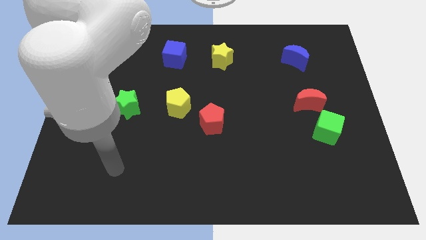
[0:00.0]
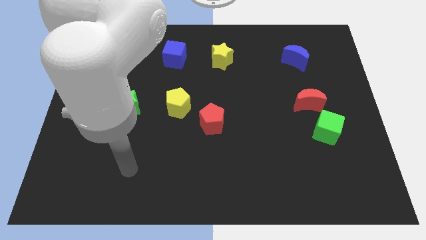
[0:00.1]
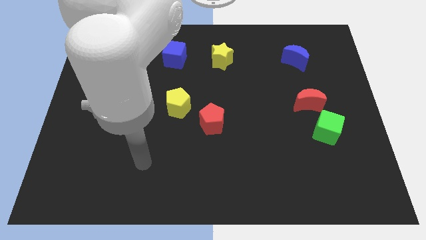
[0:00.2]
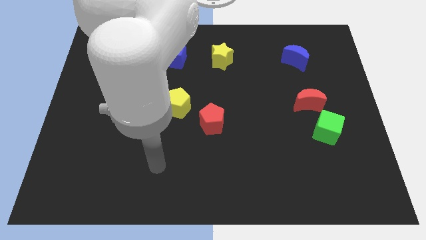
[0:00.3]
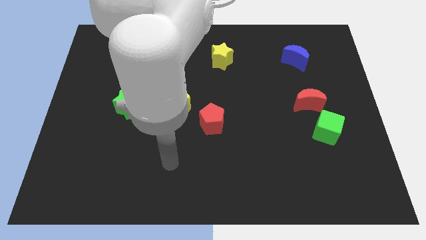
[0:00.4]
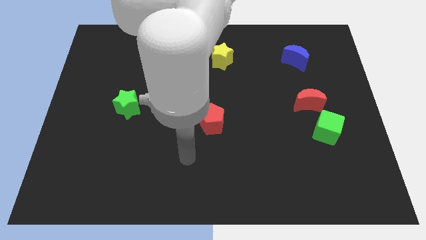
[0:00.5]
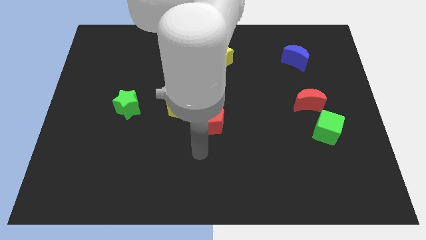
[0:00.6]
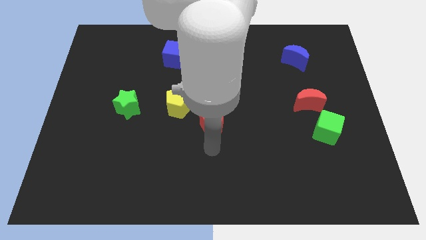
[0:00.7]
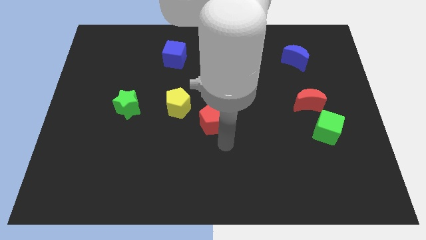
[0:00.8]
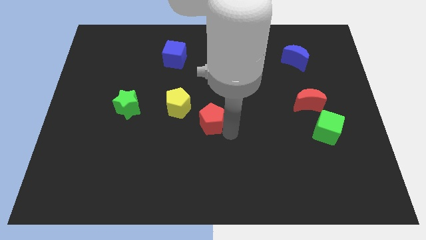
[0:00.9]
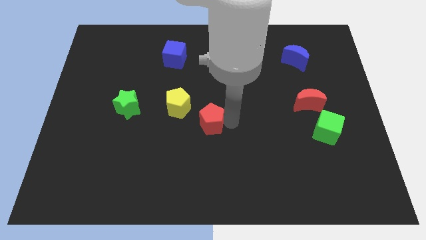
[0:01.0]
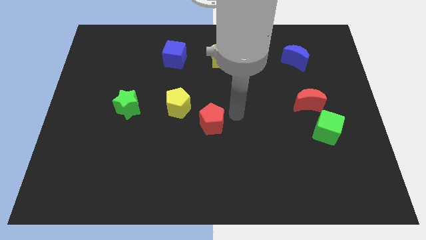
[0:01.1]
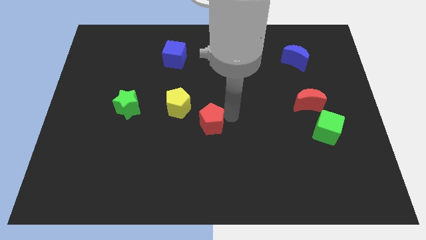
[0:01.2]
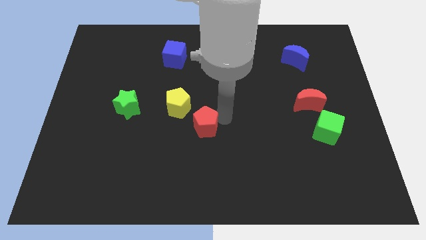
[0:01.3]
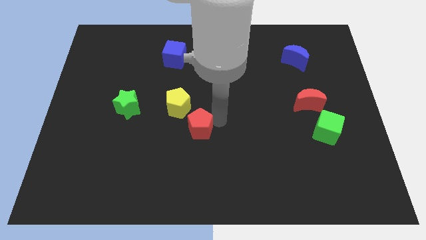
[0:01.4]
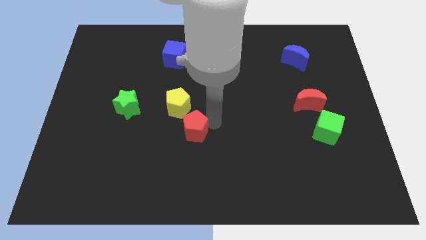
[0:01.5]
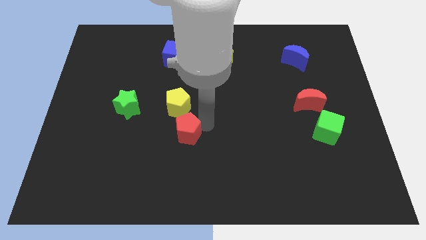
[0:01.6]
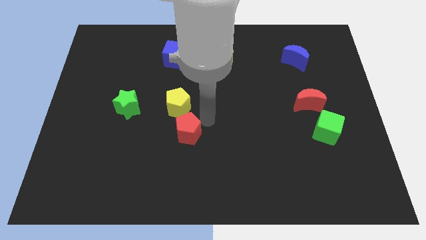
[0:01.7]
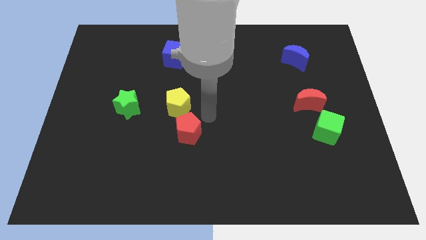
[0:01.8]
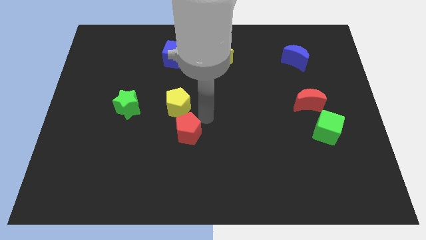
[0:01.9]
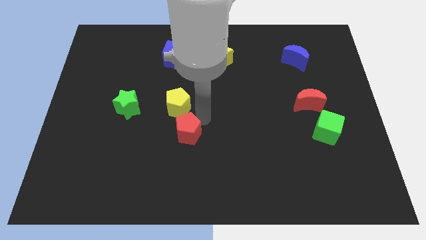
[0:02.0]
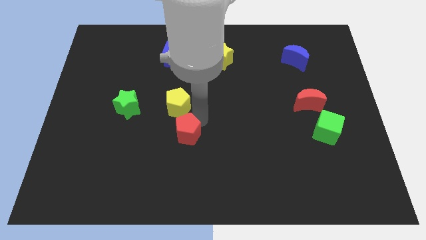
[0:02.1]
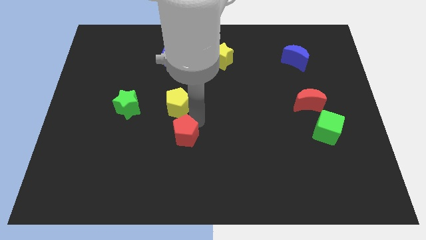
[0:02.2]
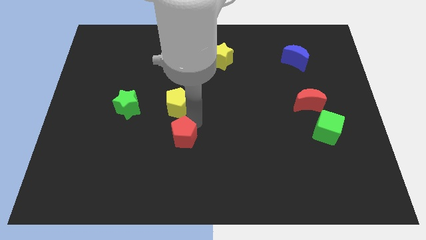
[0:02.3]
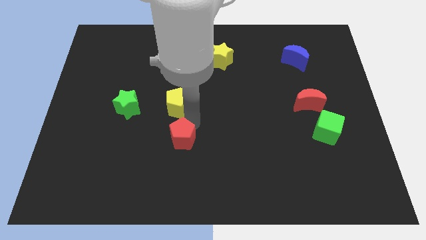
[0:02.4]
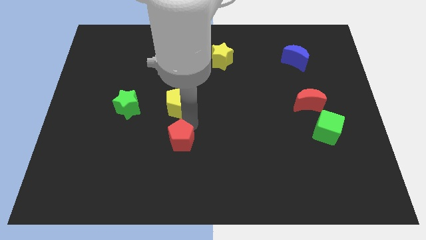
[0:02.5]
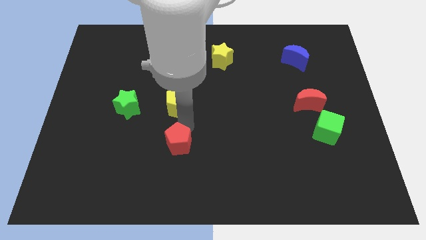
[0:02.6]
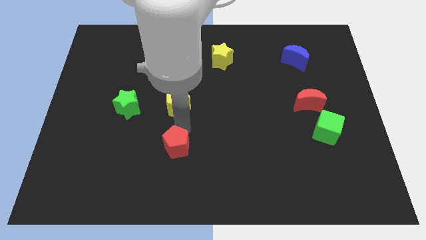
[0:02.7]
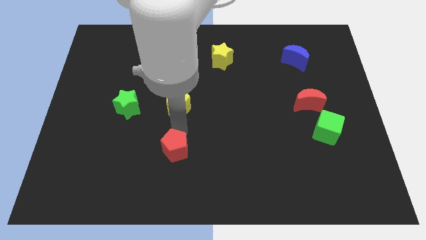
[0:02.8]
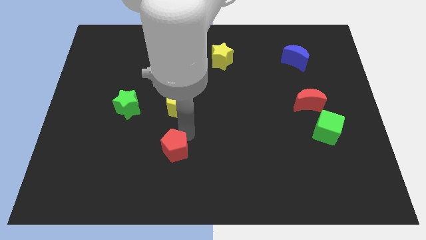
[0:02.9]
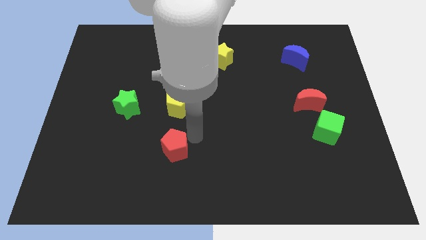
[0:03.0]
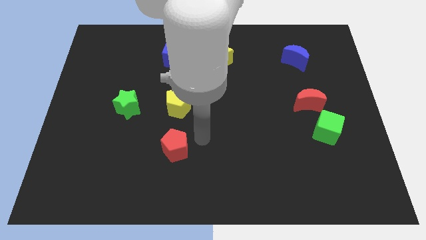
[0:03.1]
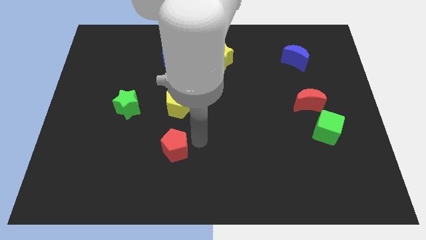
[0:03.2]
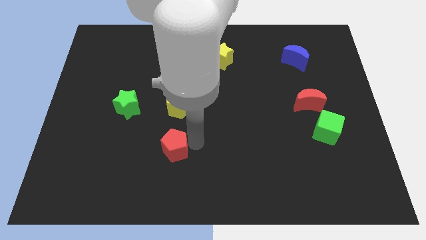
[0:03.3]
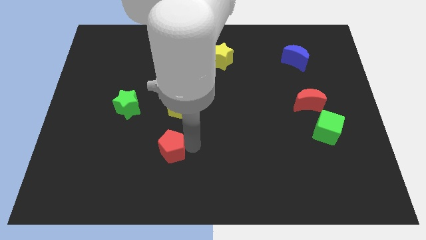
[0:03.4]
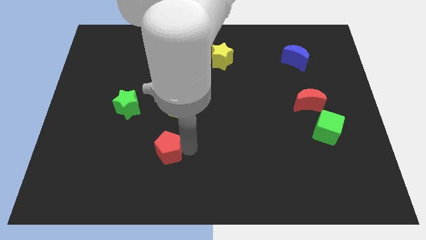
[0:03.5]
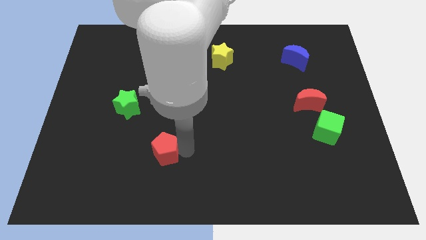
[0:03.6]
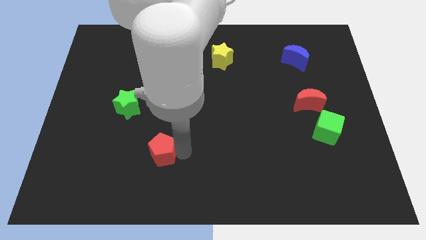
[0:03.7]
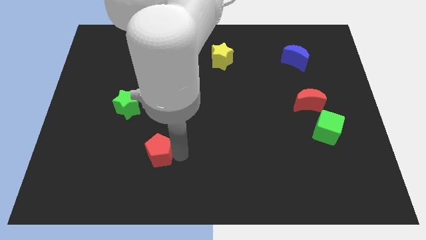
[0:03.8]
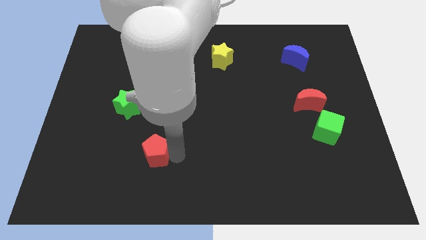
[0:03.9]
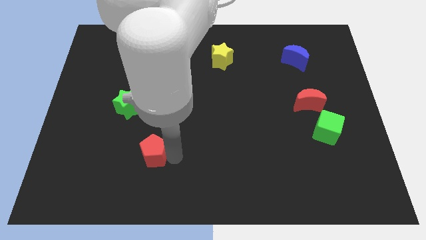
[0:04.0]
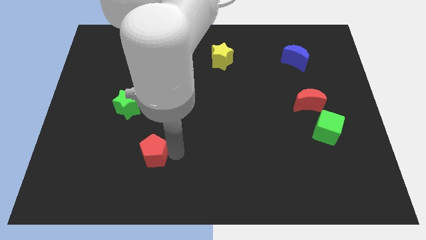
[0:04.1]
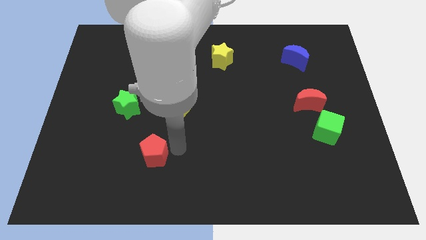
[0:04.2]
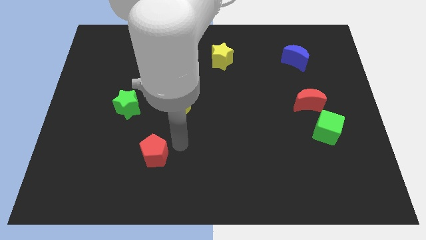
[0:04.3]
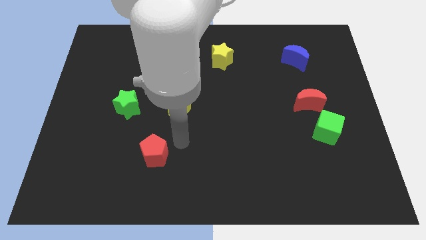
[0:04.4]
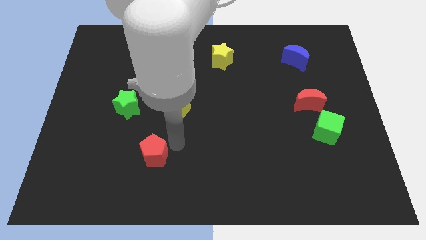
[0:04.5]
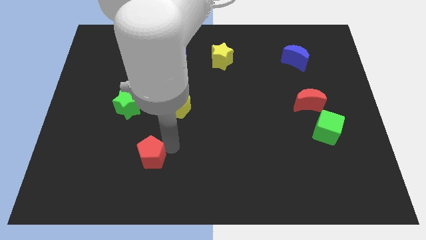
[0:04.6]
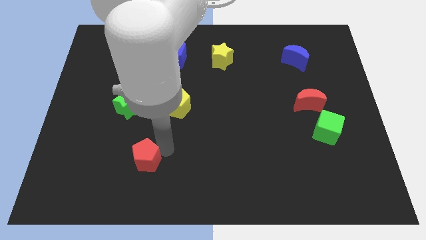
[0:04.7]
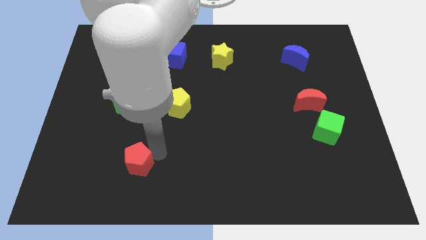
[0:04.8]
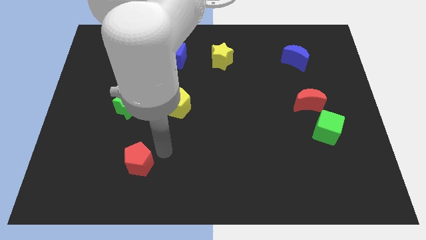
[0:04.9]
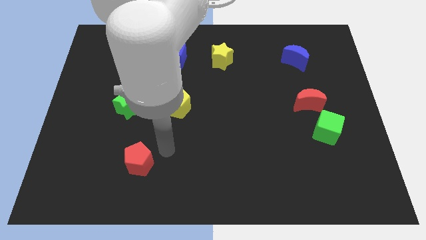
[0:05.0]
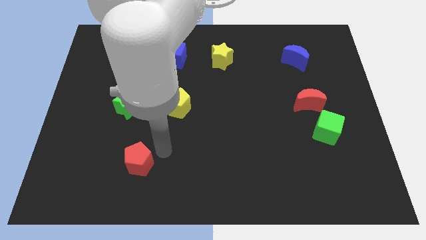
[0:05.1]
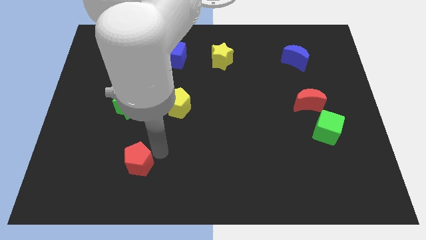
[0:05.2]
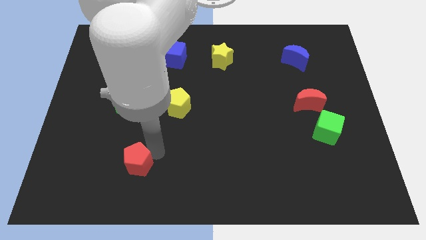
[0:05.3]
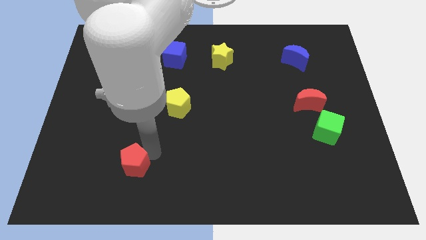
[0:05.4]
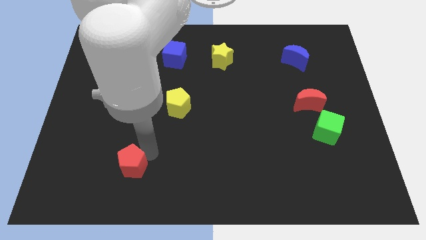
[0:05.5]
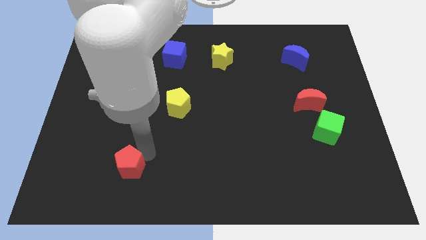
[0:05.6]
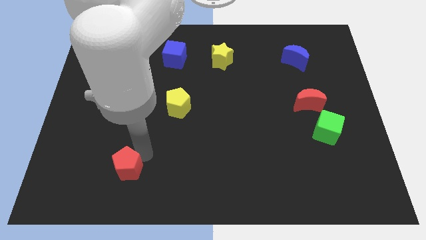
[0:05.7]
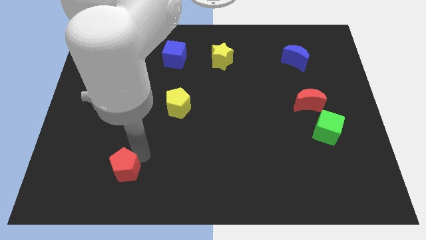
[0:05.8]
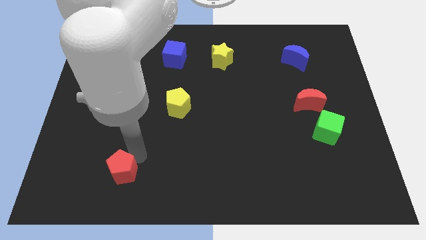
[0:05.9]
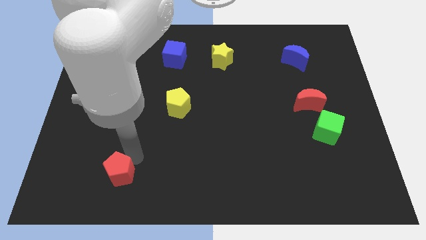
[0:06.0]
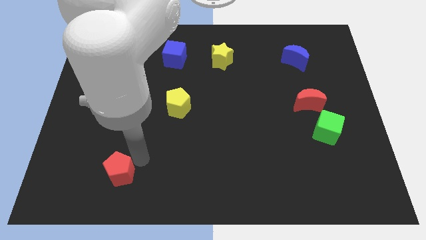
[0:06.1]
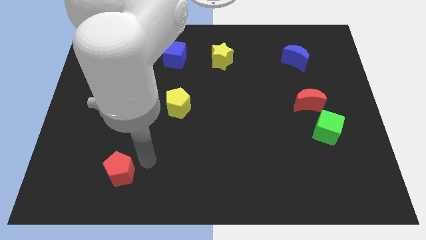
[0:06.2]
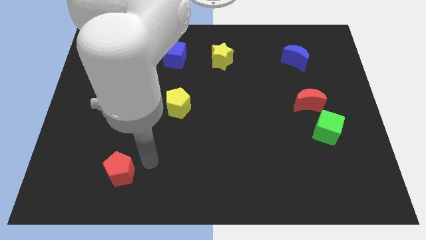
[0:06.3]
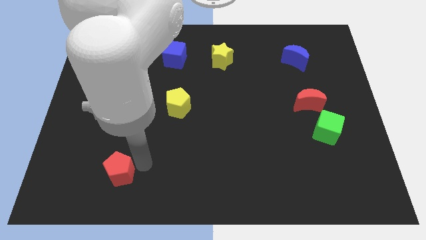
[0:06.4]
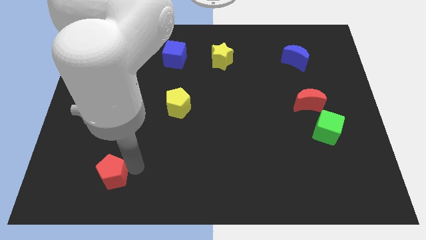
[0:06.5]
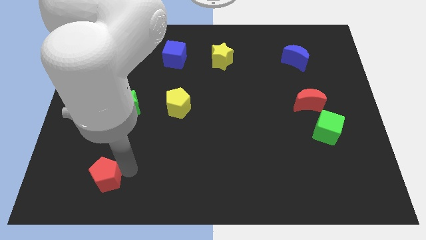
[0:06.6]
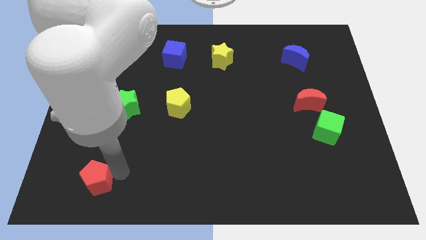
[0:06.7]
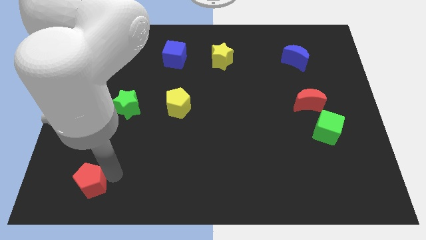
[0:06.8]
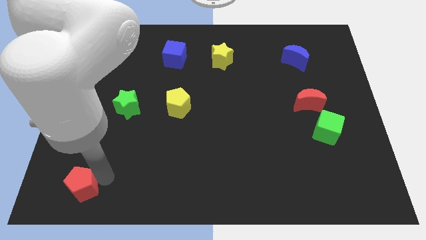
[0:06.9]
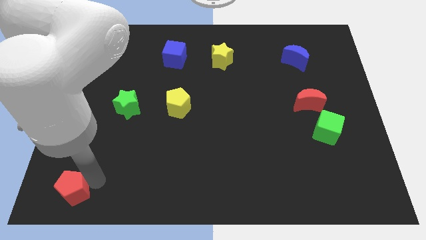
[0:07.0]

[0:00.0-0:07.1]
move the red pentagon to the lower left corner

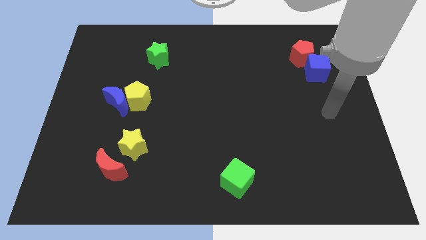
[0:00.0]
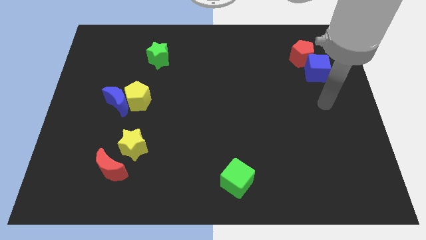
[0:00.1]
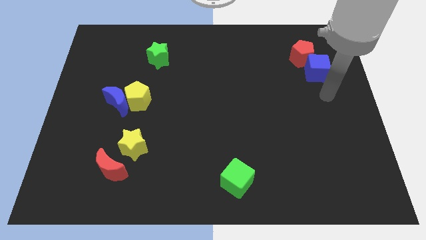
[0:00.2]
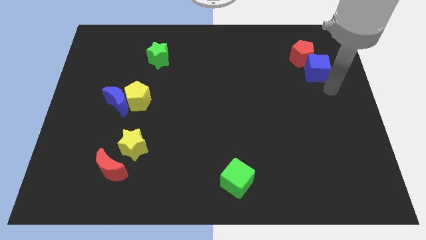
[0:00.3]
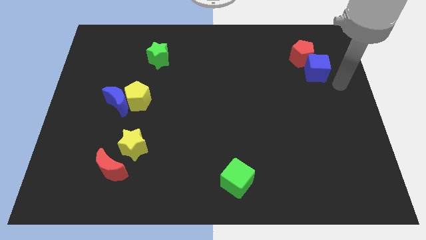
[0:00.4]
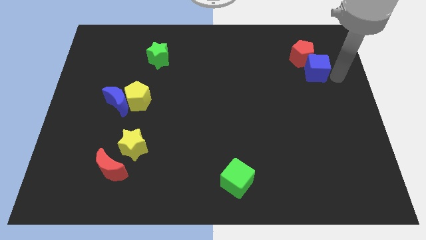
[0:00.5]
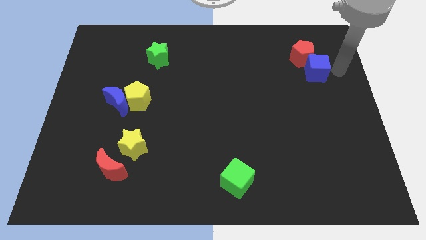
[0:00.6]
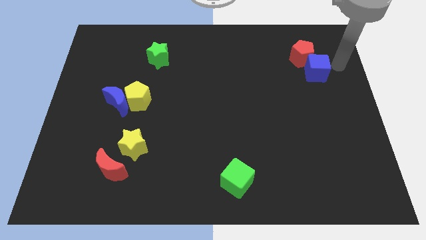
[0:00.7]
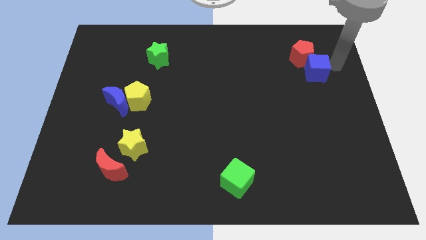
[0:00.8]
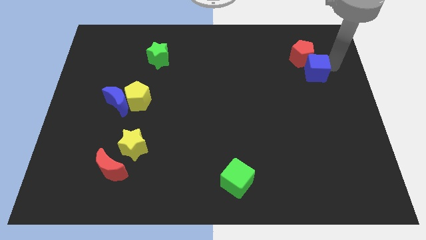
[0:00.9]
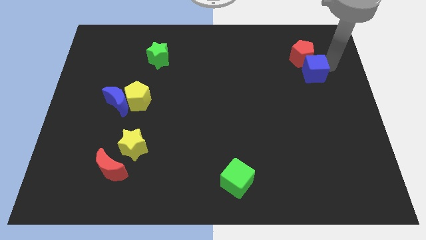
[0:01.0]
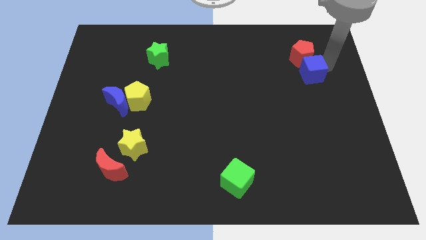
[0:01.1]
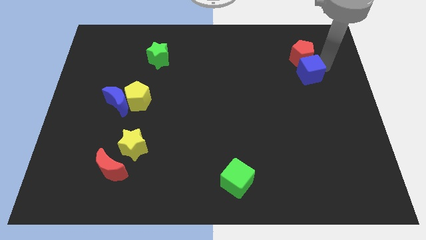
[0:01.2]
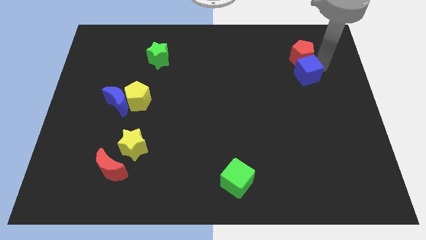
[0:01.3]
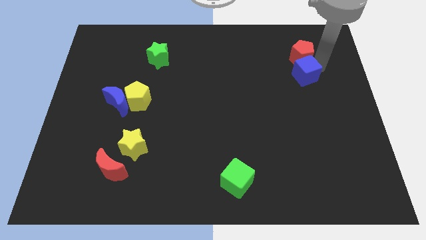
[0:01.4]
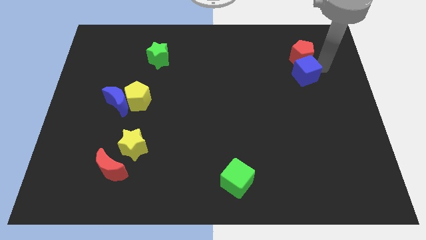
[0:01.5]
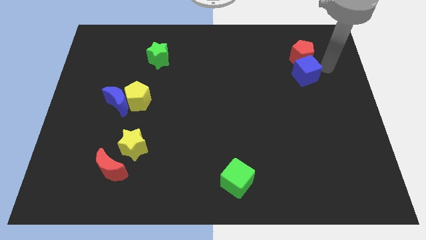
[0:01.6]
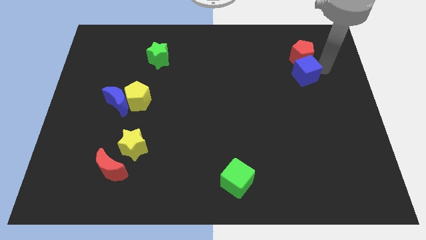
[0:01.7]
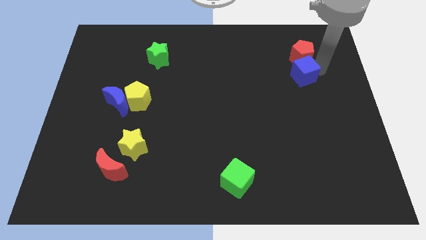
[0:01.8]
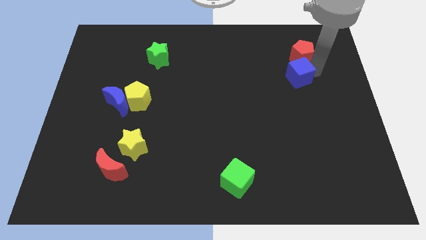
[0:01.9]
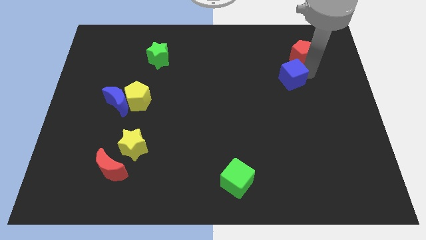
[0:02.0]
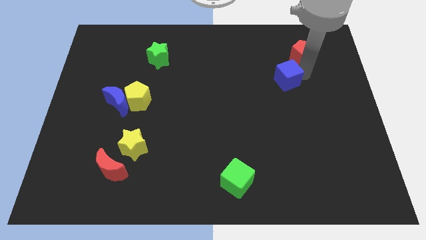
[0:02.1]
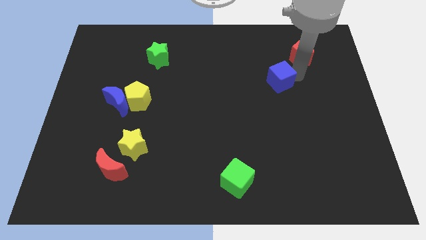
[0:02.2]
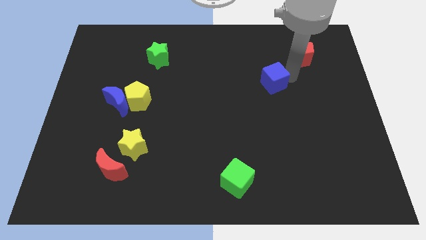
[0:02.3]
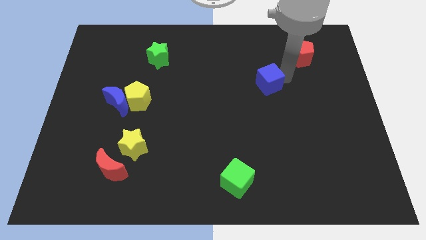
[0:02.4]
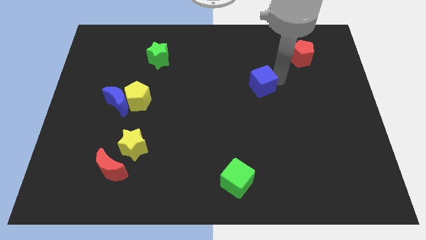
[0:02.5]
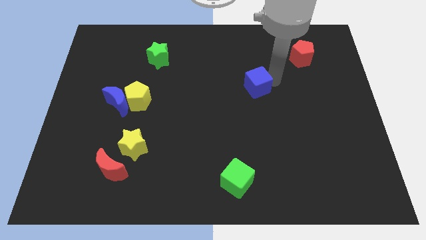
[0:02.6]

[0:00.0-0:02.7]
slide the blue cube to the middle of the board
